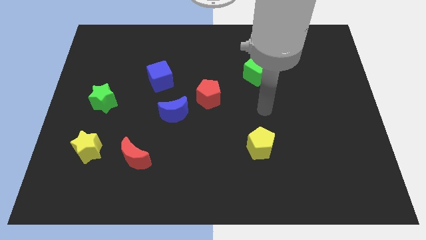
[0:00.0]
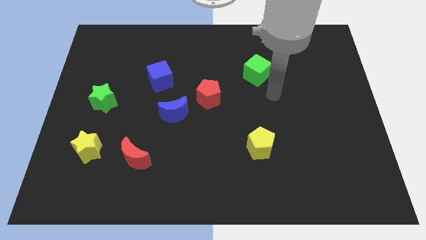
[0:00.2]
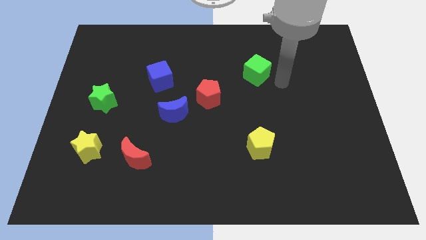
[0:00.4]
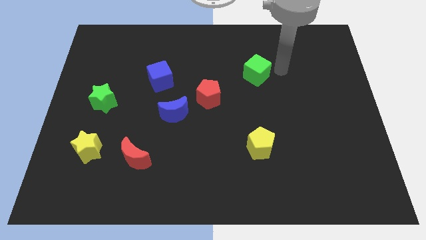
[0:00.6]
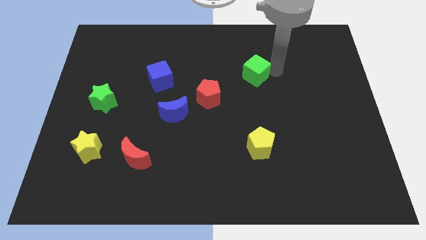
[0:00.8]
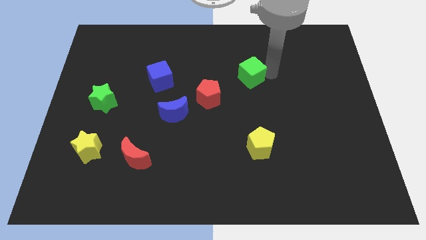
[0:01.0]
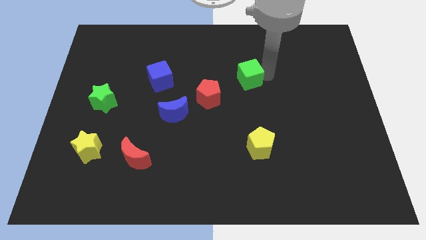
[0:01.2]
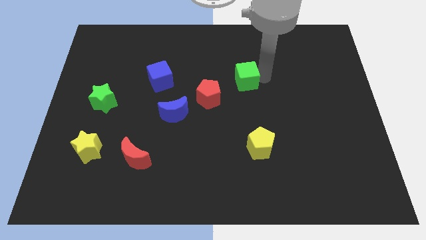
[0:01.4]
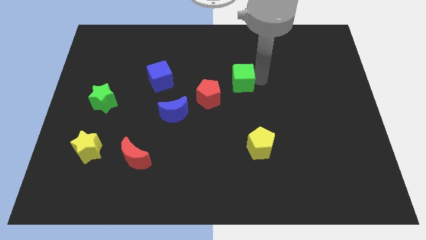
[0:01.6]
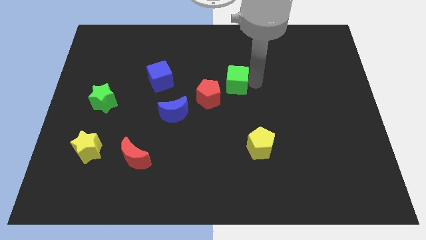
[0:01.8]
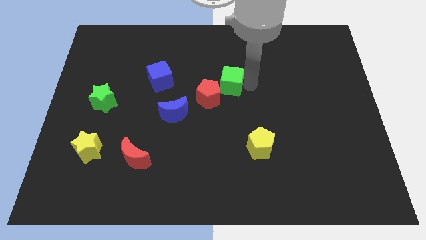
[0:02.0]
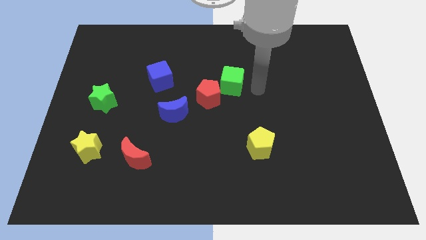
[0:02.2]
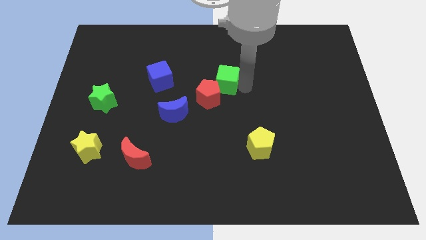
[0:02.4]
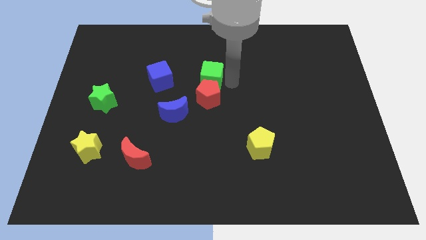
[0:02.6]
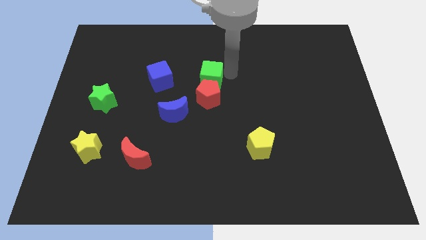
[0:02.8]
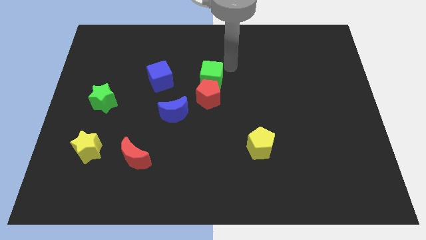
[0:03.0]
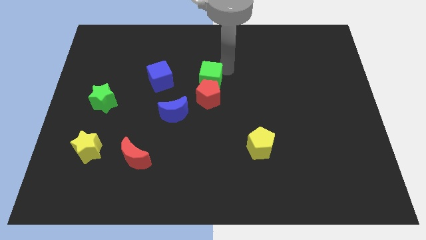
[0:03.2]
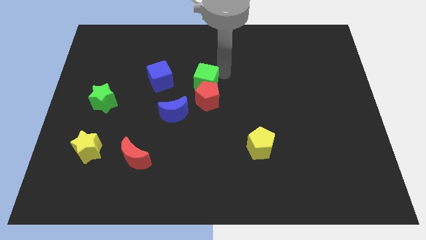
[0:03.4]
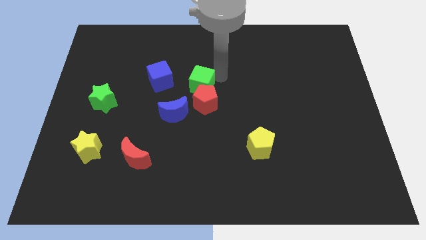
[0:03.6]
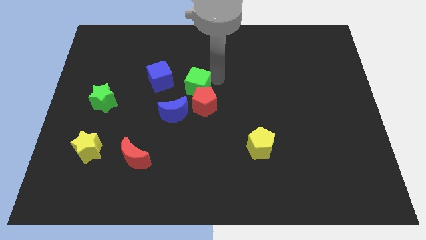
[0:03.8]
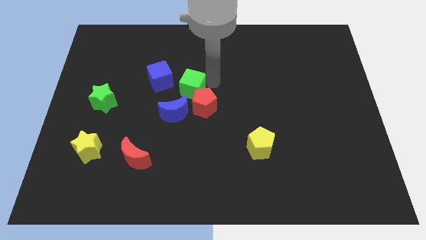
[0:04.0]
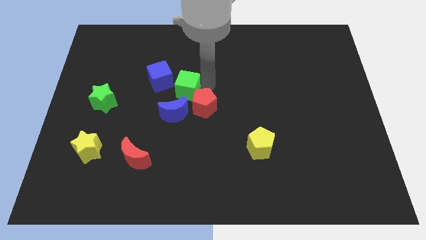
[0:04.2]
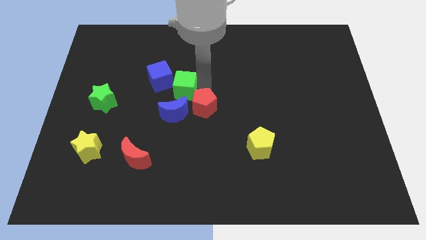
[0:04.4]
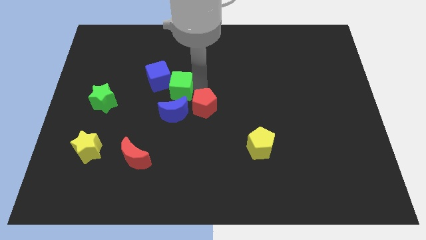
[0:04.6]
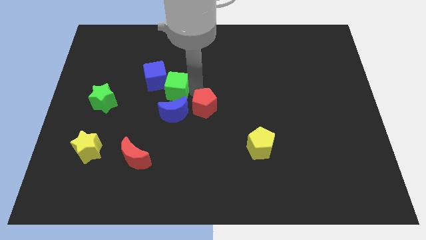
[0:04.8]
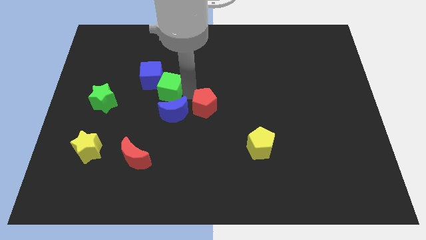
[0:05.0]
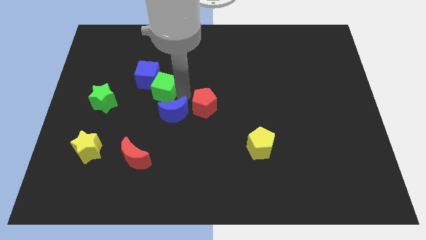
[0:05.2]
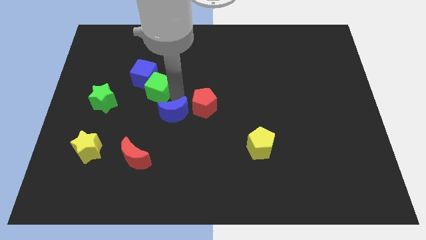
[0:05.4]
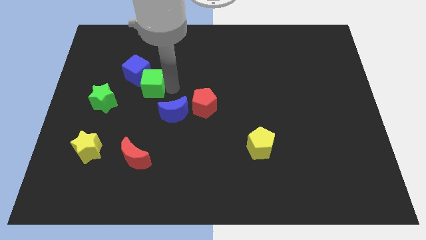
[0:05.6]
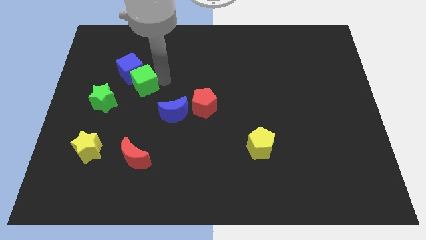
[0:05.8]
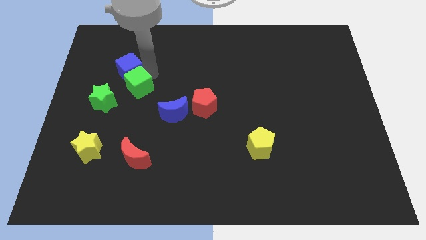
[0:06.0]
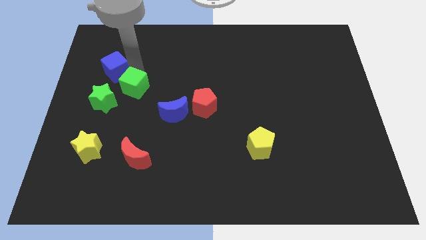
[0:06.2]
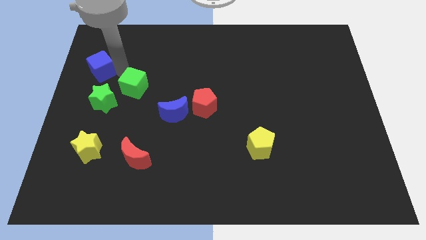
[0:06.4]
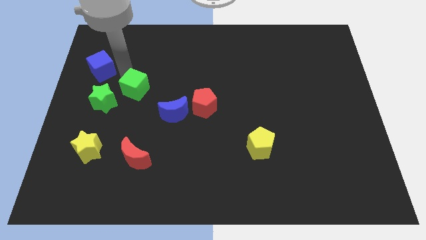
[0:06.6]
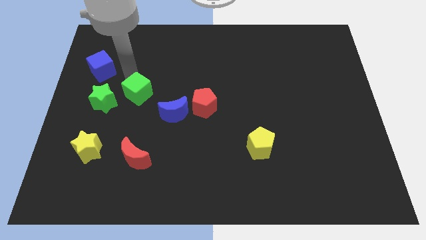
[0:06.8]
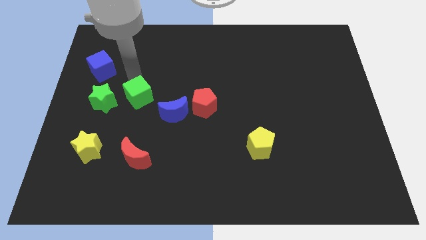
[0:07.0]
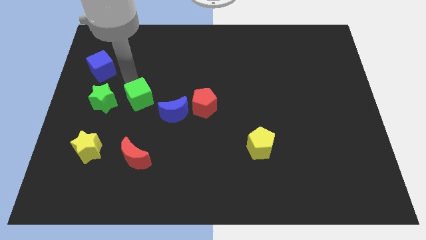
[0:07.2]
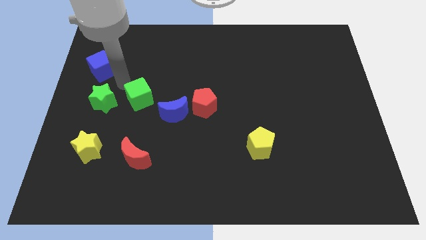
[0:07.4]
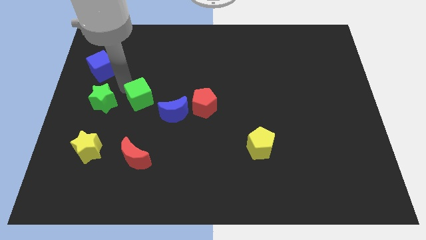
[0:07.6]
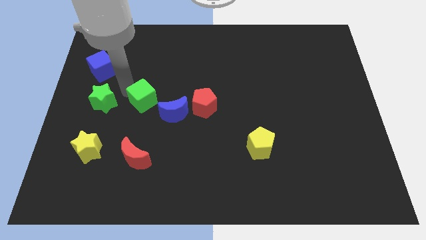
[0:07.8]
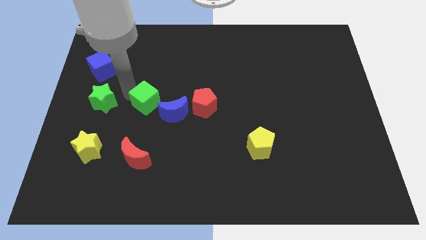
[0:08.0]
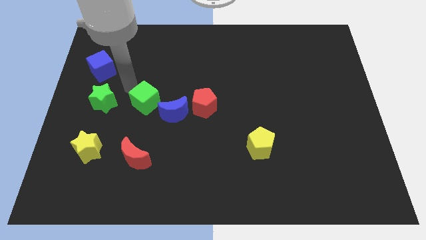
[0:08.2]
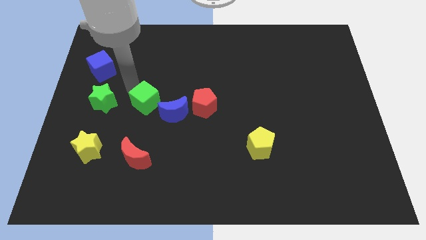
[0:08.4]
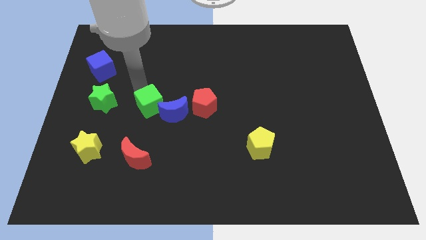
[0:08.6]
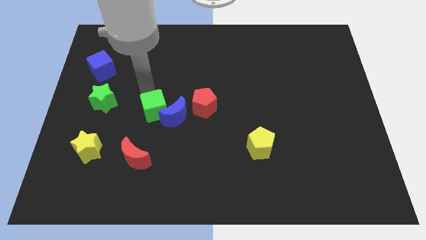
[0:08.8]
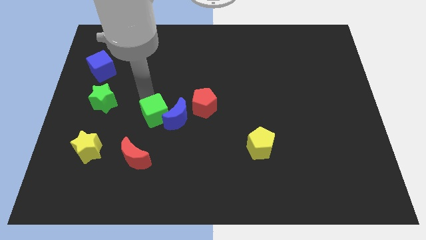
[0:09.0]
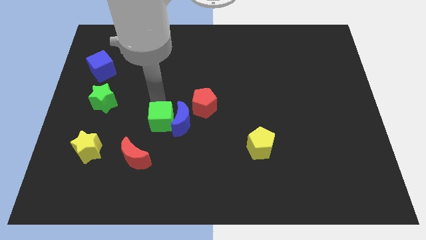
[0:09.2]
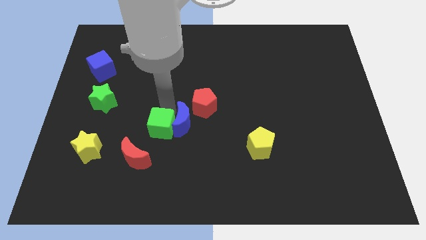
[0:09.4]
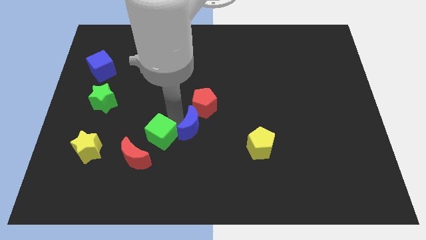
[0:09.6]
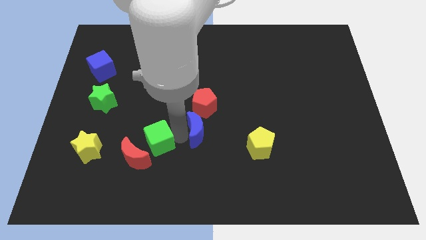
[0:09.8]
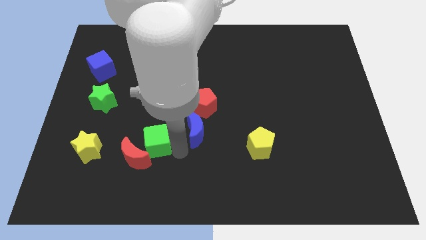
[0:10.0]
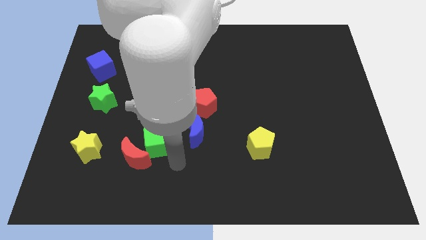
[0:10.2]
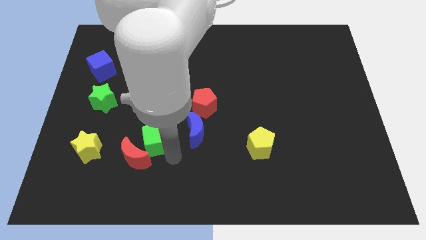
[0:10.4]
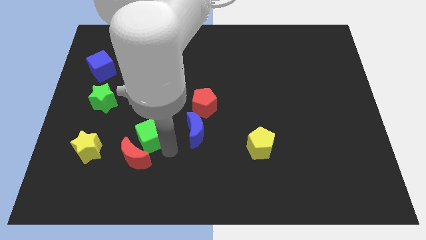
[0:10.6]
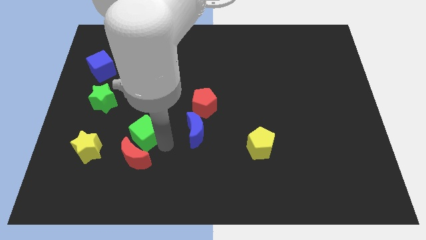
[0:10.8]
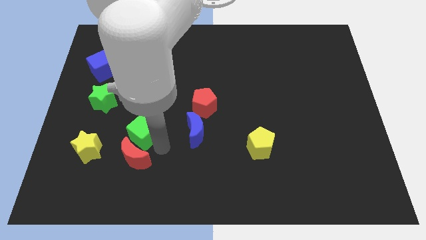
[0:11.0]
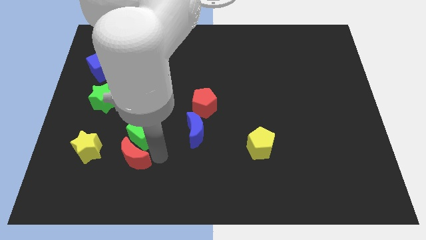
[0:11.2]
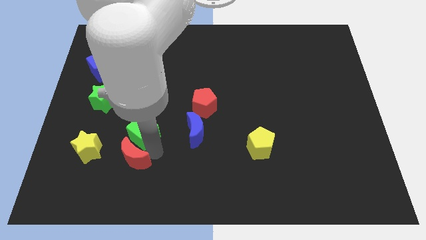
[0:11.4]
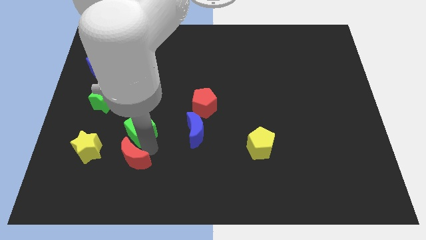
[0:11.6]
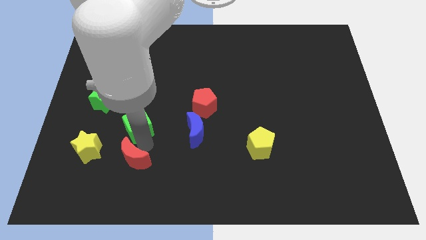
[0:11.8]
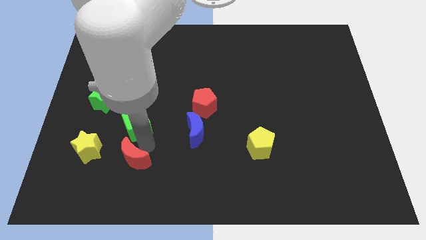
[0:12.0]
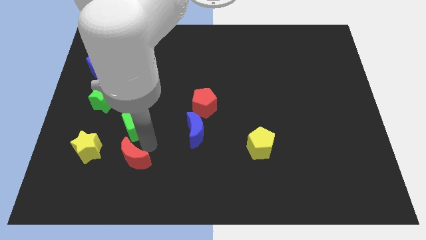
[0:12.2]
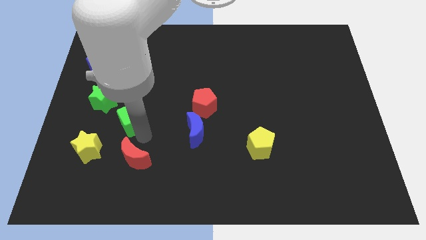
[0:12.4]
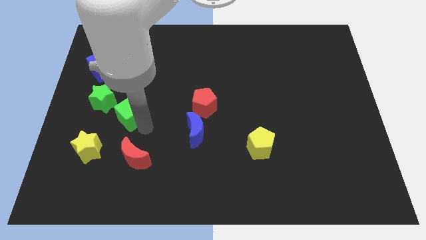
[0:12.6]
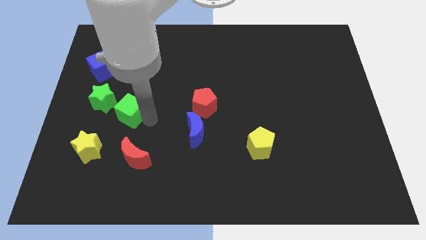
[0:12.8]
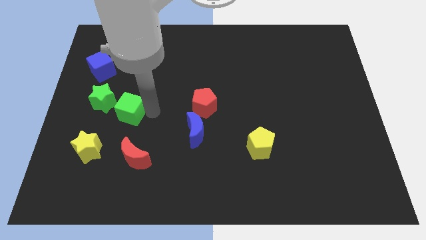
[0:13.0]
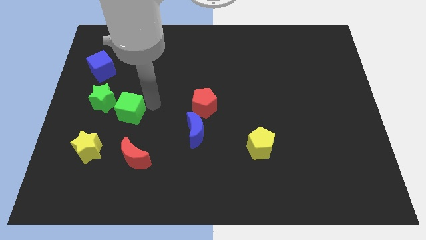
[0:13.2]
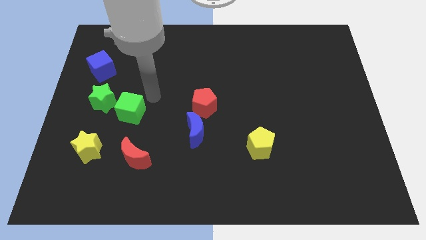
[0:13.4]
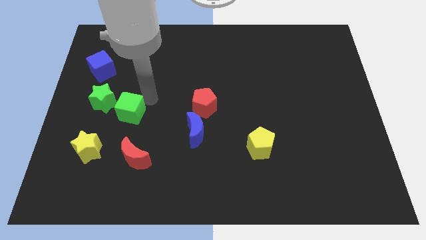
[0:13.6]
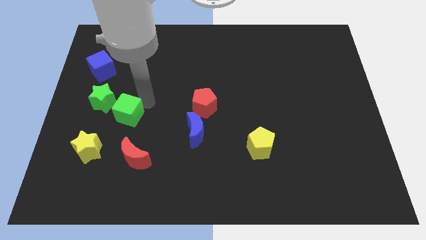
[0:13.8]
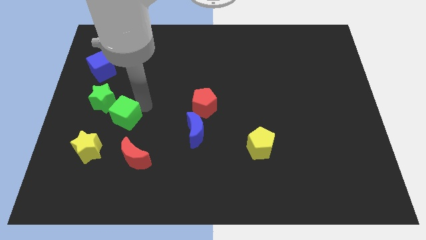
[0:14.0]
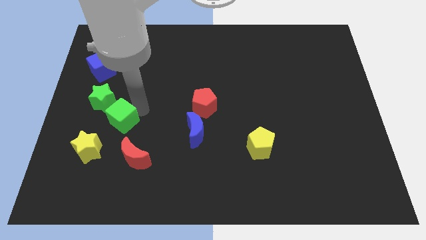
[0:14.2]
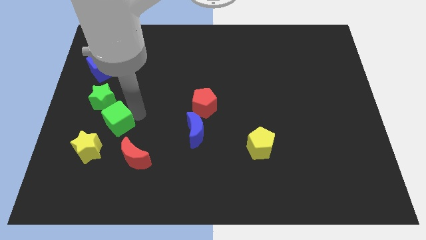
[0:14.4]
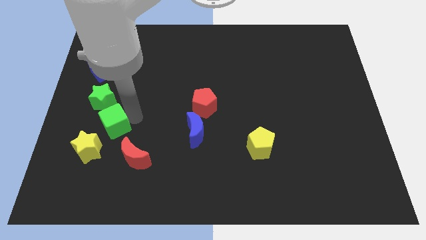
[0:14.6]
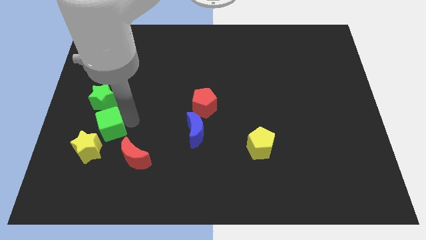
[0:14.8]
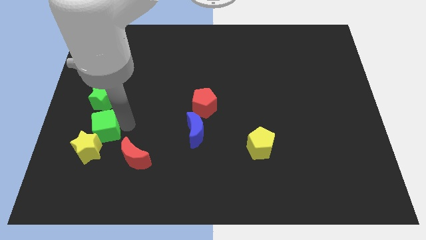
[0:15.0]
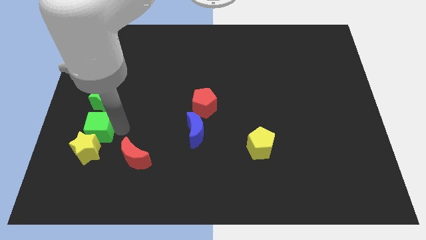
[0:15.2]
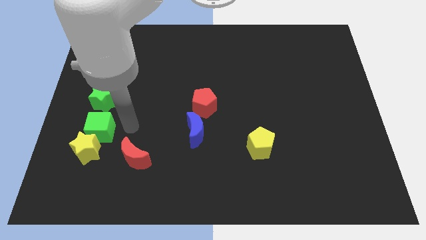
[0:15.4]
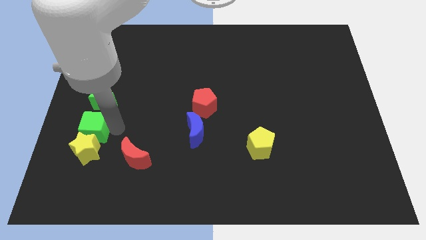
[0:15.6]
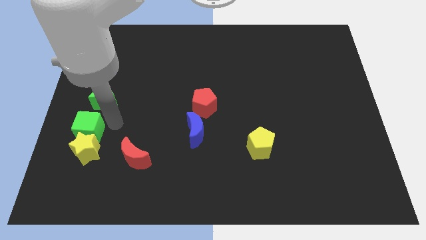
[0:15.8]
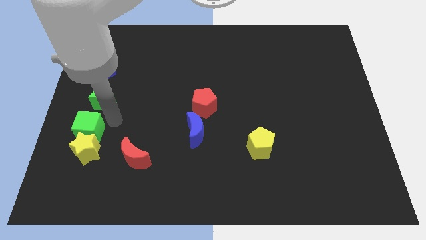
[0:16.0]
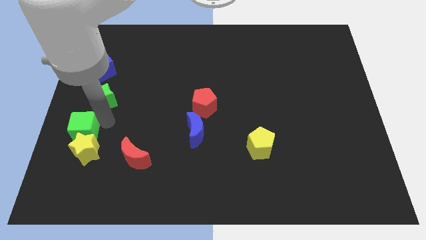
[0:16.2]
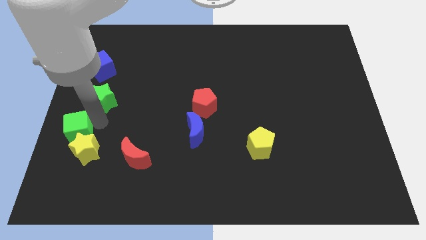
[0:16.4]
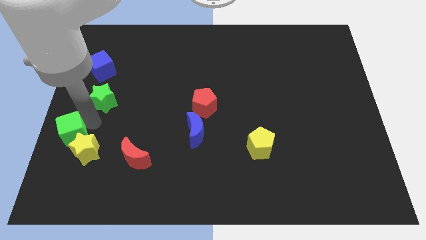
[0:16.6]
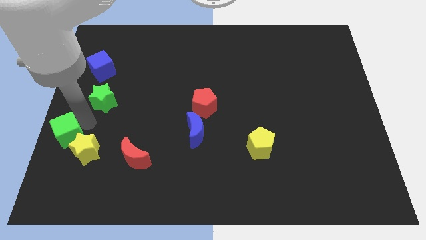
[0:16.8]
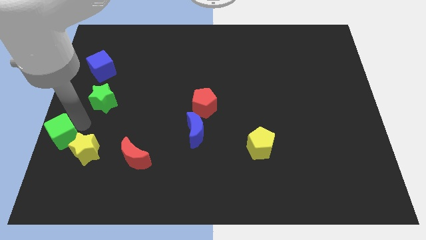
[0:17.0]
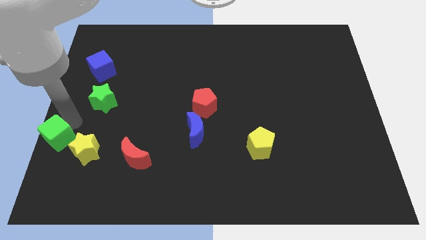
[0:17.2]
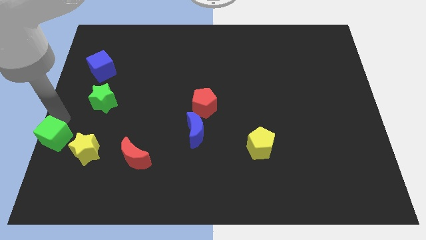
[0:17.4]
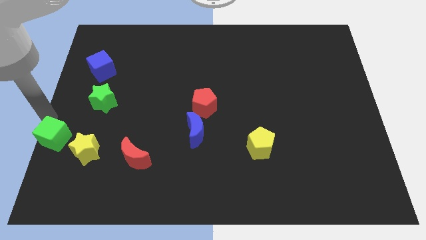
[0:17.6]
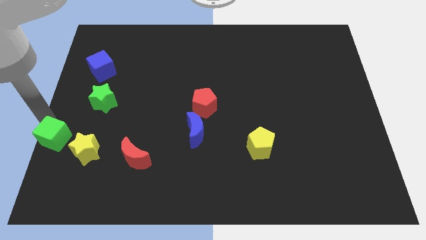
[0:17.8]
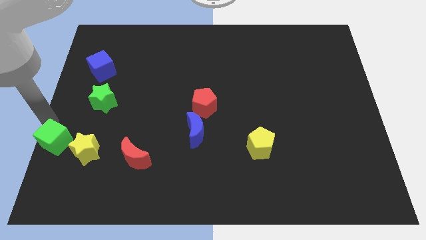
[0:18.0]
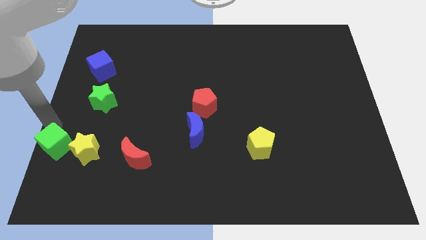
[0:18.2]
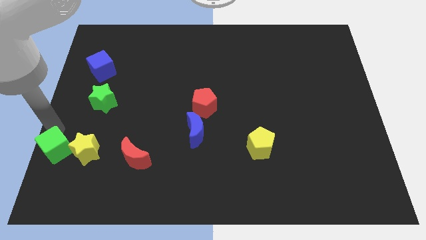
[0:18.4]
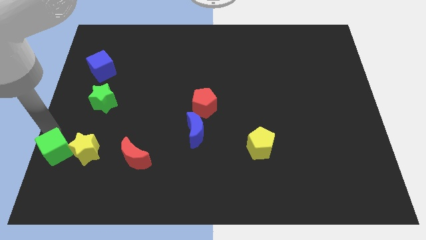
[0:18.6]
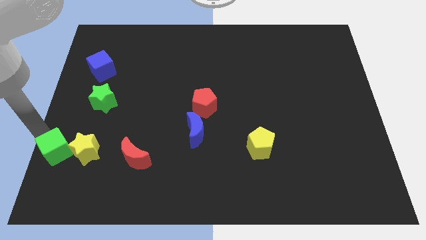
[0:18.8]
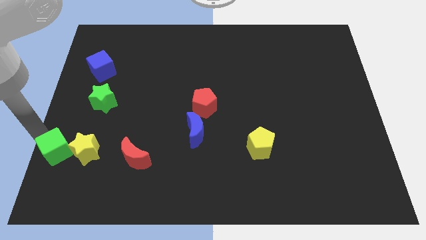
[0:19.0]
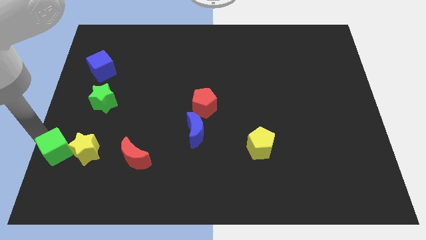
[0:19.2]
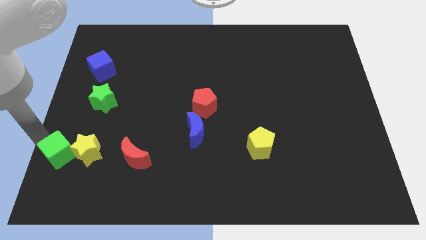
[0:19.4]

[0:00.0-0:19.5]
move the green cube to the left of the red moon
